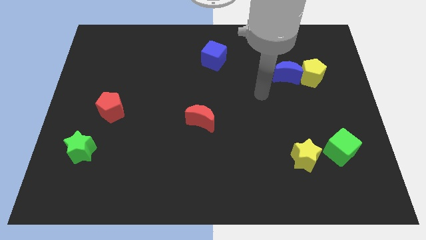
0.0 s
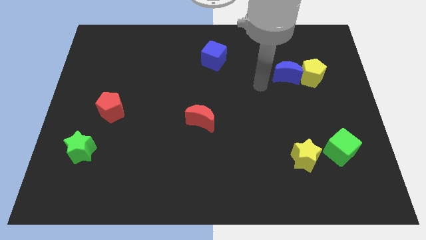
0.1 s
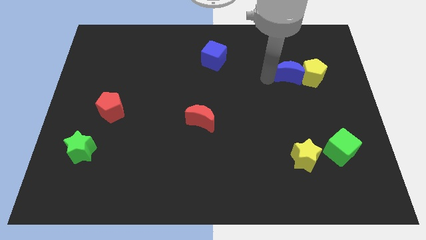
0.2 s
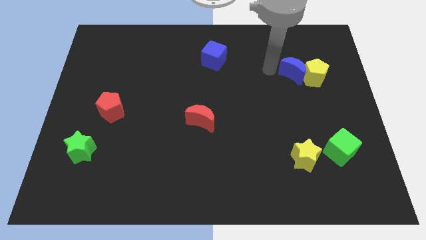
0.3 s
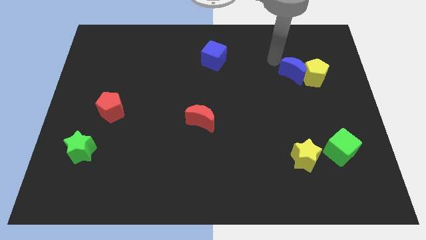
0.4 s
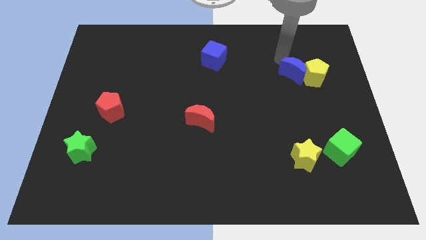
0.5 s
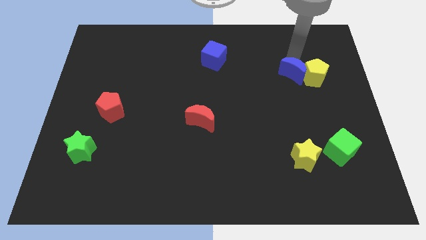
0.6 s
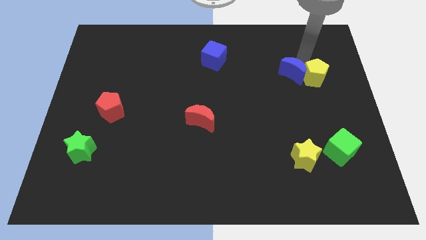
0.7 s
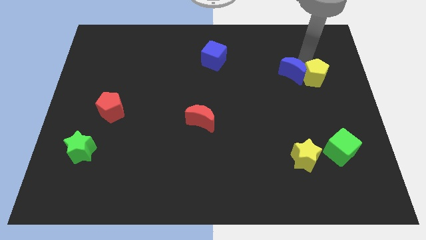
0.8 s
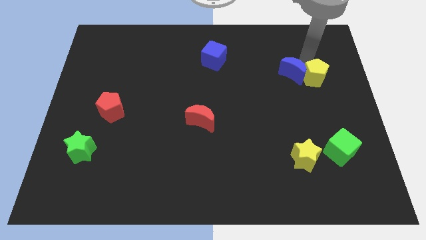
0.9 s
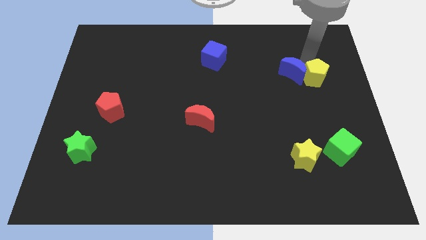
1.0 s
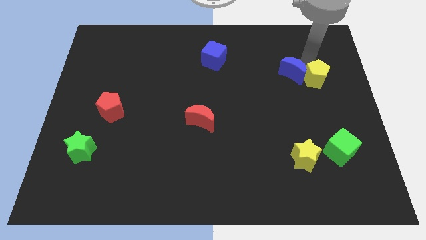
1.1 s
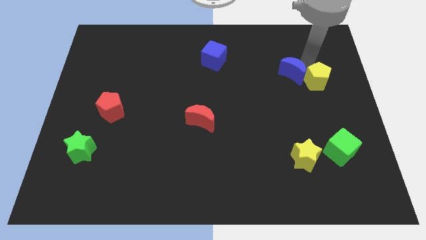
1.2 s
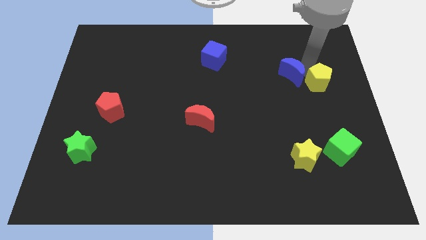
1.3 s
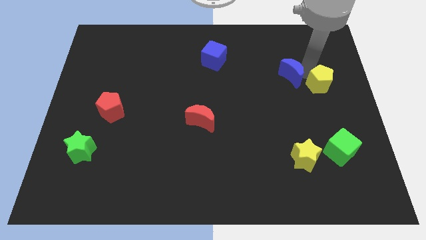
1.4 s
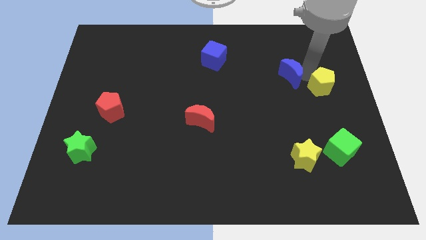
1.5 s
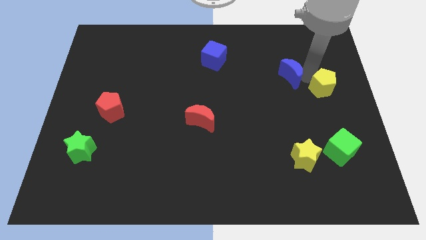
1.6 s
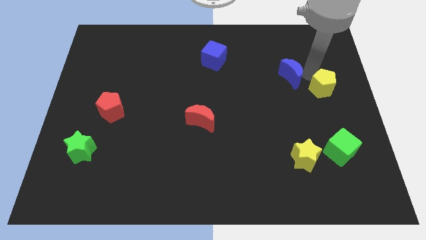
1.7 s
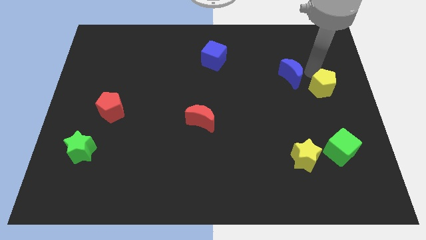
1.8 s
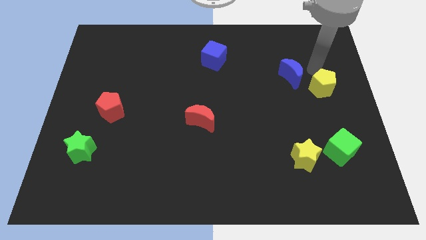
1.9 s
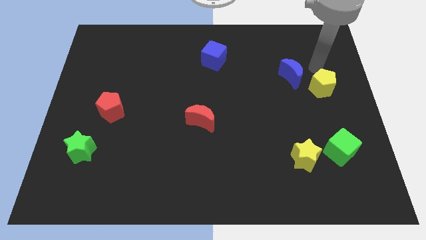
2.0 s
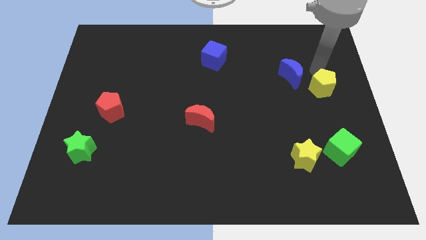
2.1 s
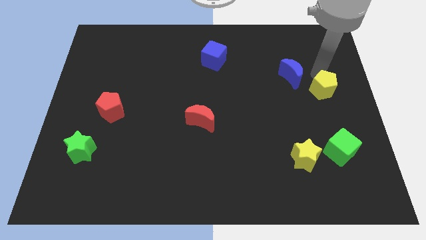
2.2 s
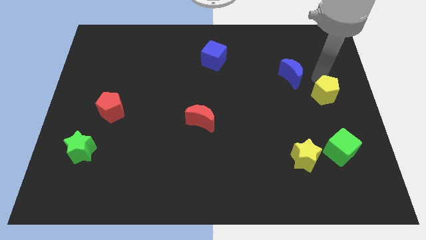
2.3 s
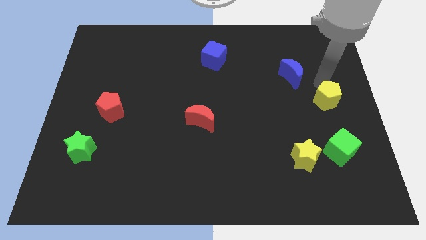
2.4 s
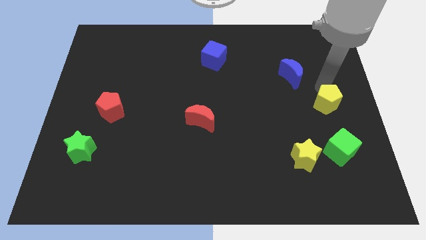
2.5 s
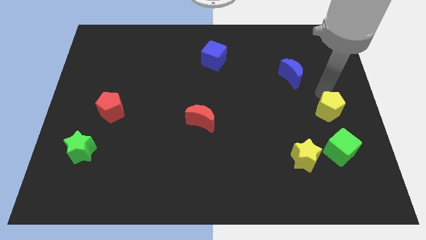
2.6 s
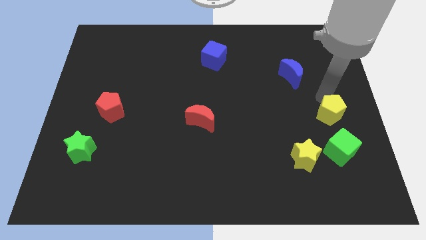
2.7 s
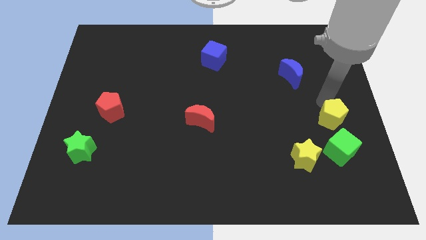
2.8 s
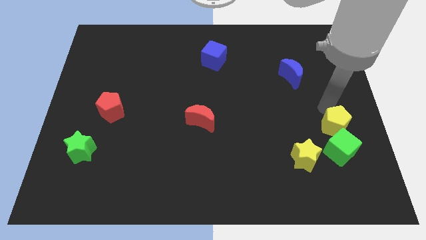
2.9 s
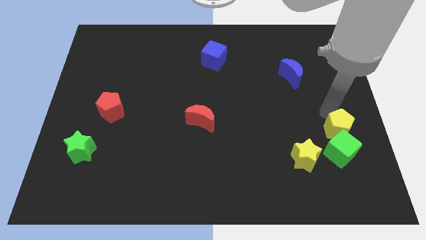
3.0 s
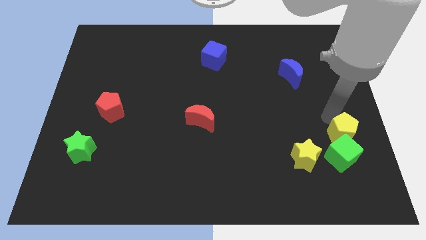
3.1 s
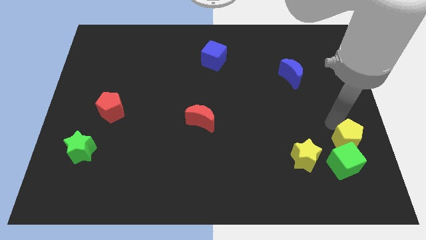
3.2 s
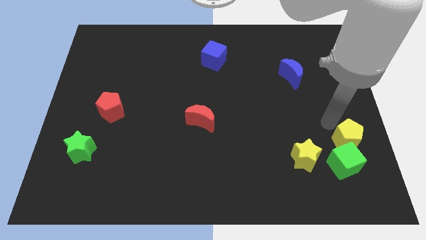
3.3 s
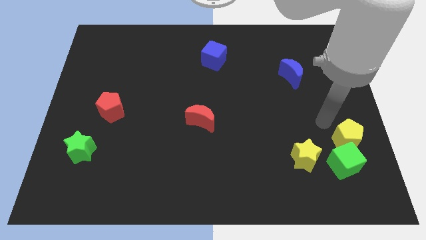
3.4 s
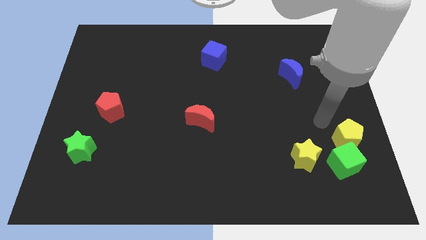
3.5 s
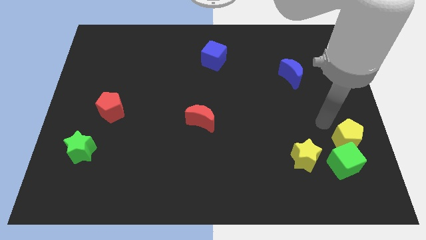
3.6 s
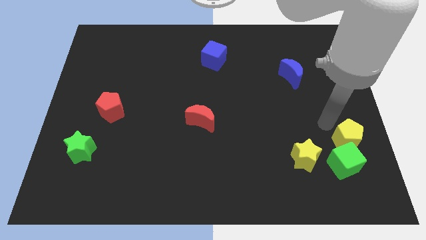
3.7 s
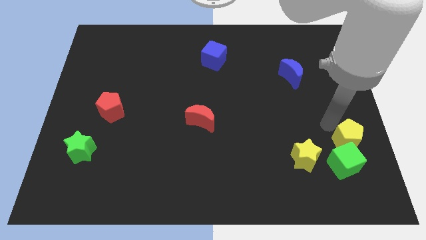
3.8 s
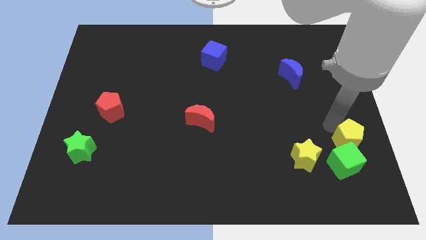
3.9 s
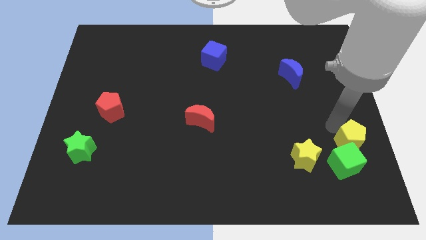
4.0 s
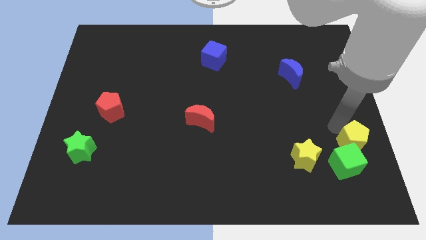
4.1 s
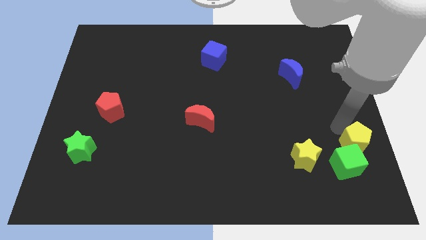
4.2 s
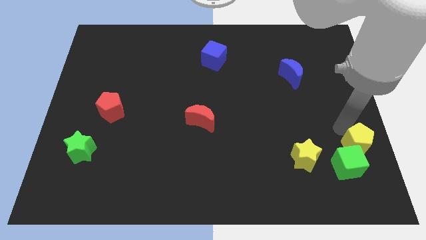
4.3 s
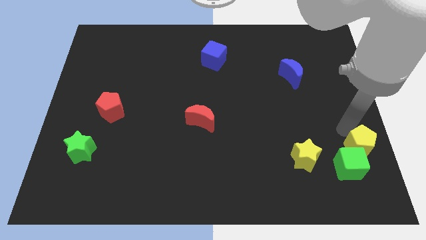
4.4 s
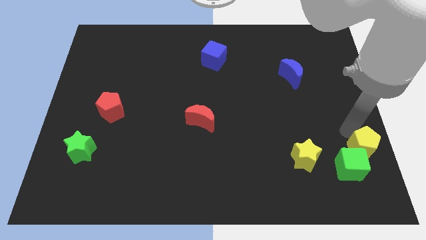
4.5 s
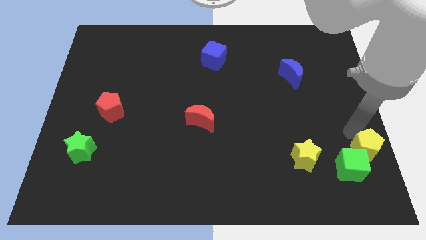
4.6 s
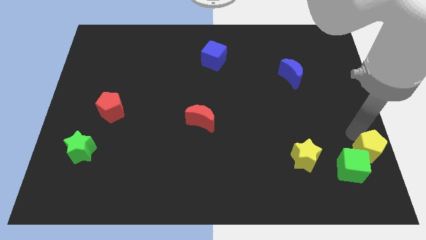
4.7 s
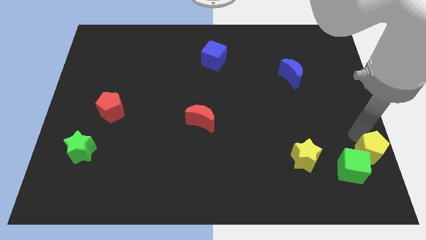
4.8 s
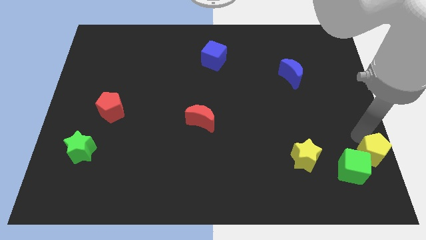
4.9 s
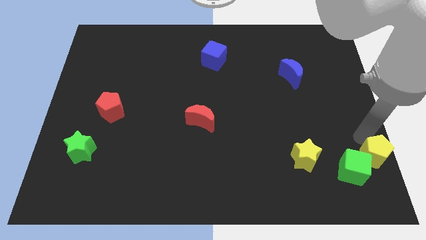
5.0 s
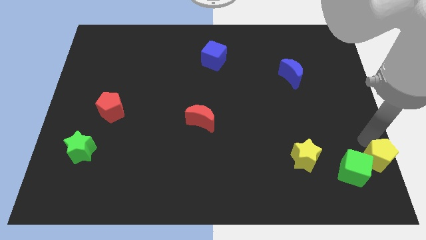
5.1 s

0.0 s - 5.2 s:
slide the yellow pentagon to the bottom right

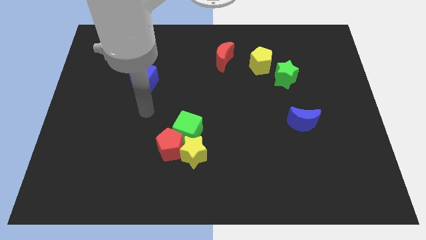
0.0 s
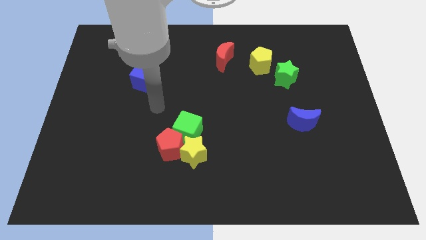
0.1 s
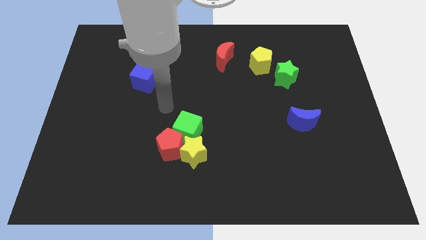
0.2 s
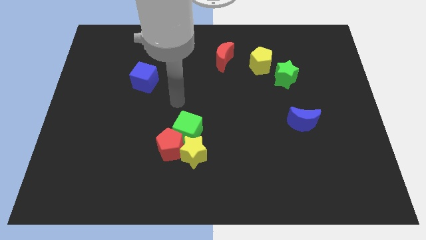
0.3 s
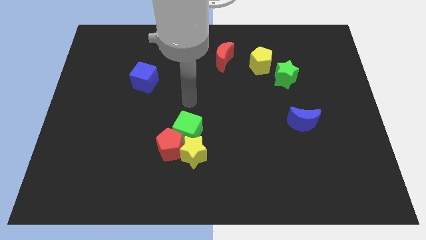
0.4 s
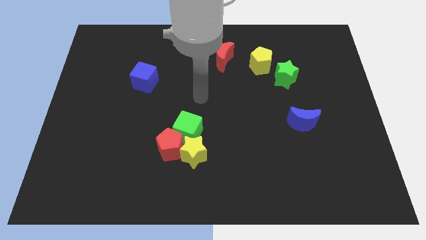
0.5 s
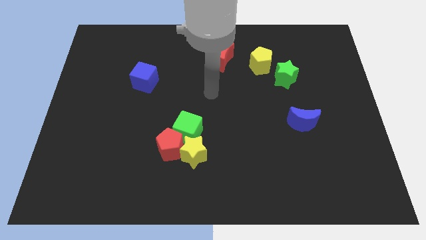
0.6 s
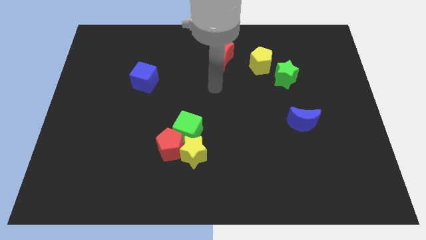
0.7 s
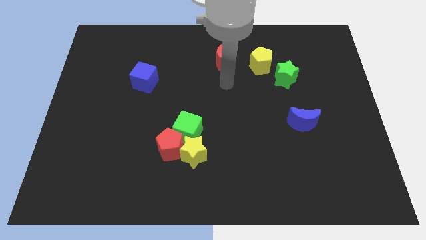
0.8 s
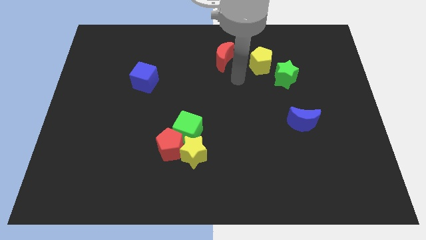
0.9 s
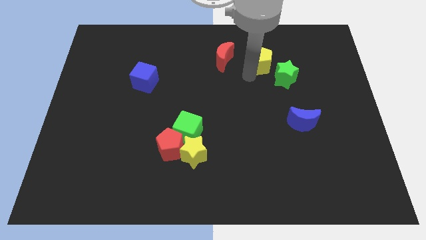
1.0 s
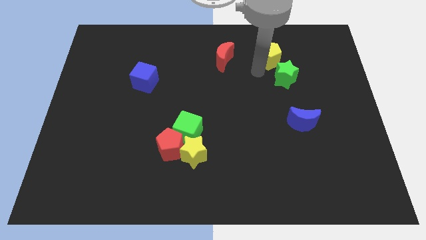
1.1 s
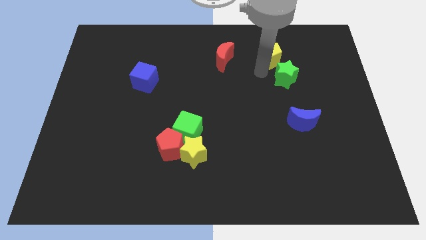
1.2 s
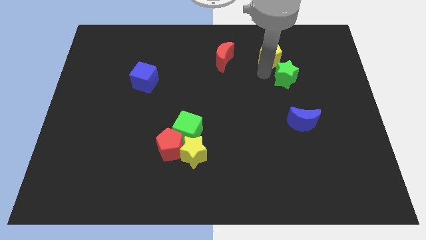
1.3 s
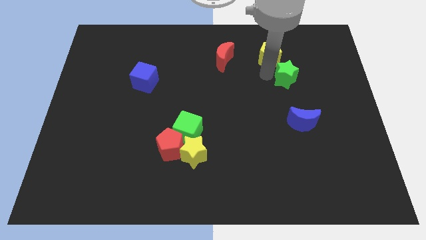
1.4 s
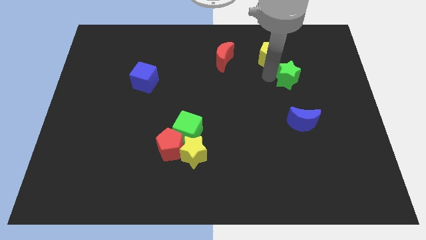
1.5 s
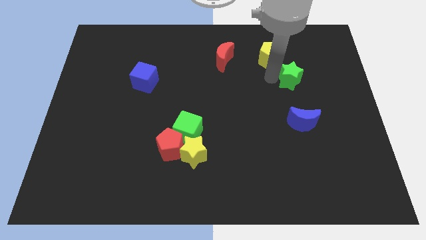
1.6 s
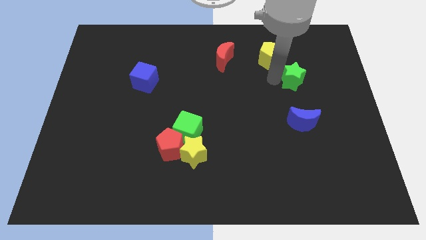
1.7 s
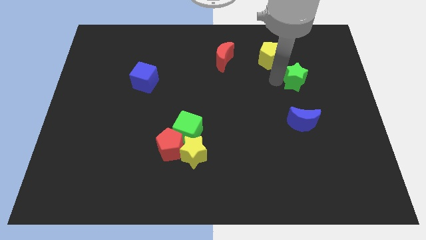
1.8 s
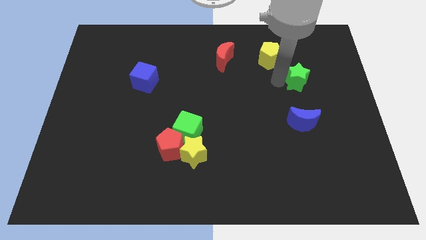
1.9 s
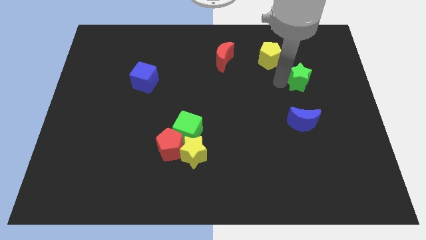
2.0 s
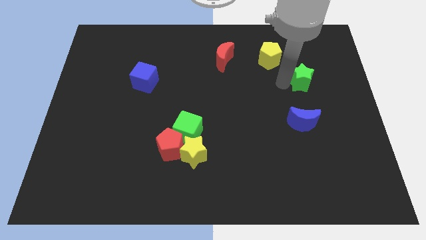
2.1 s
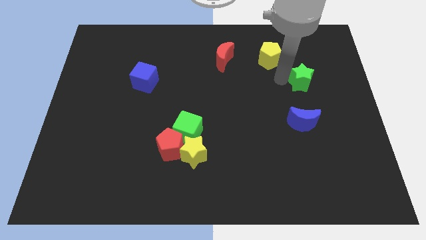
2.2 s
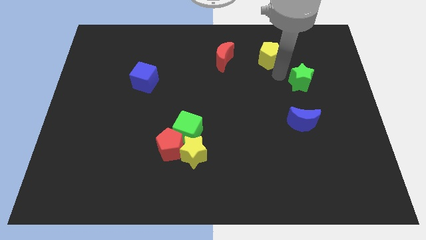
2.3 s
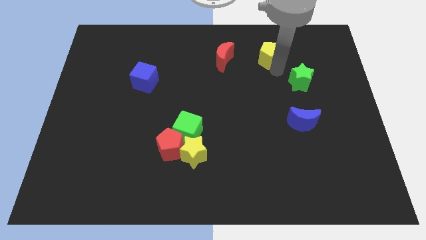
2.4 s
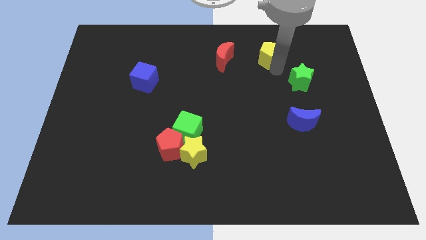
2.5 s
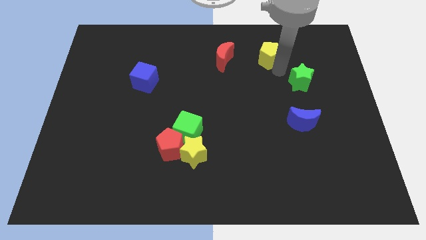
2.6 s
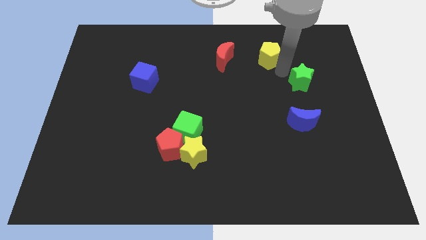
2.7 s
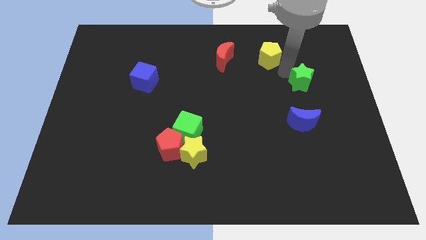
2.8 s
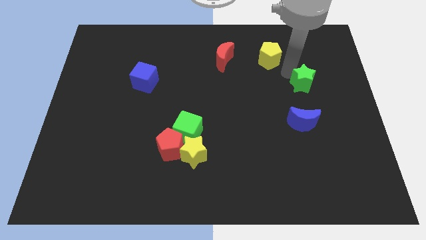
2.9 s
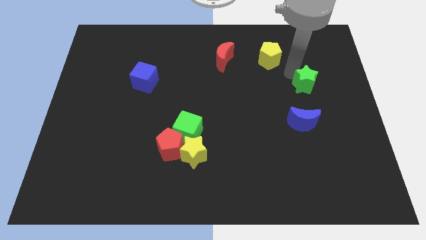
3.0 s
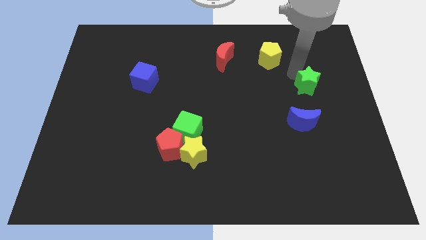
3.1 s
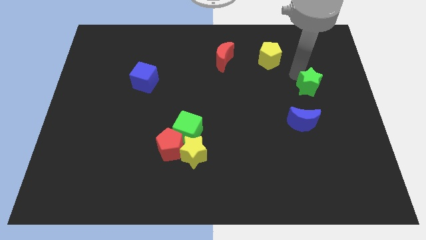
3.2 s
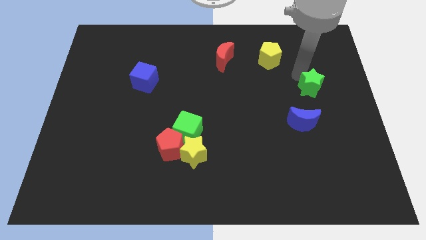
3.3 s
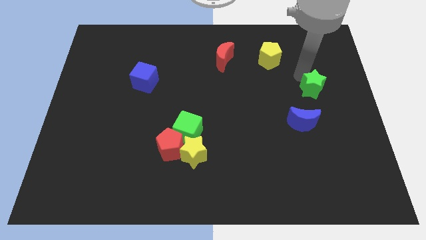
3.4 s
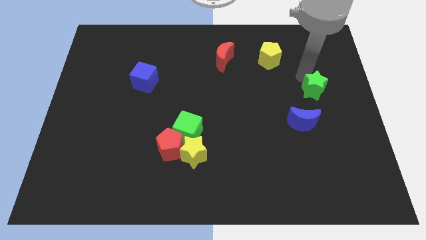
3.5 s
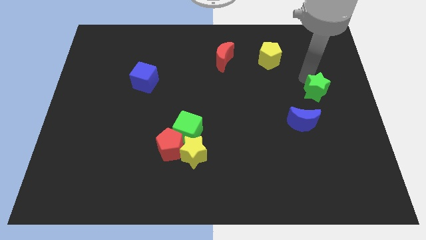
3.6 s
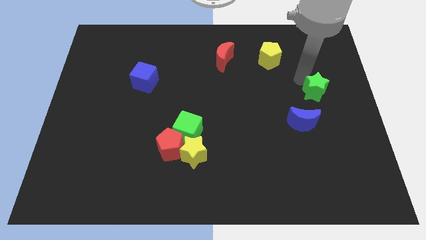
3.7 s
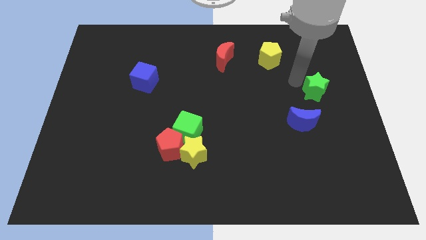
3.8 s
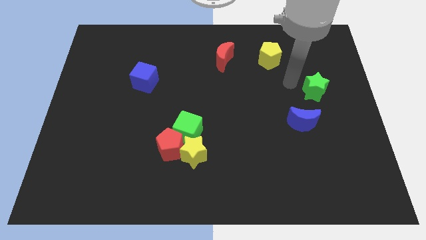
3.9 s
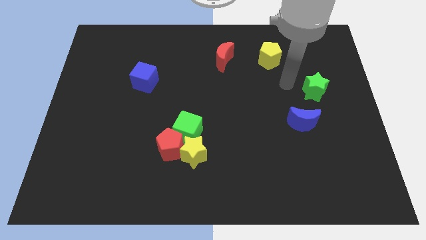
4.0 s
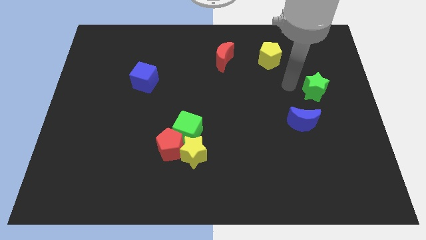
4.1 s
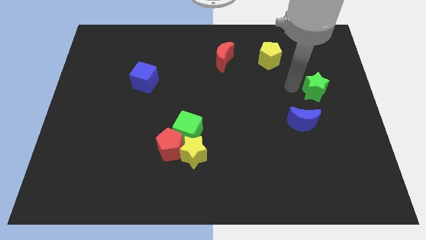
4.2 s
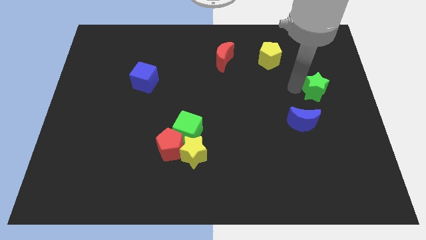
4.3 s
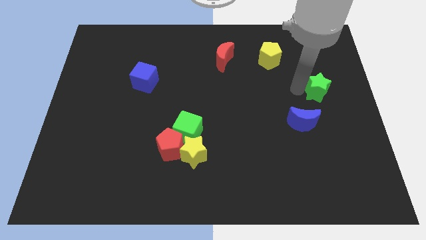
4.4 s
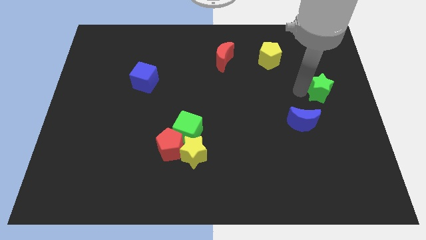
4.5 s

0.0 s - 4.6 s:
slide the green star to the right side of the board
